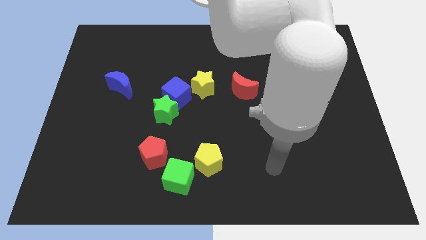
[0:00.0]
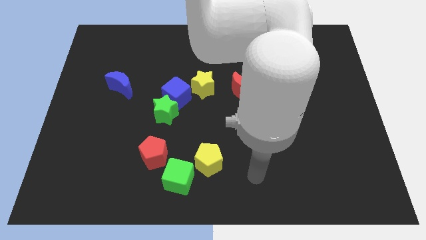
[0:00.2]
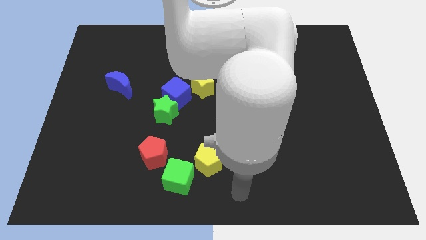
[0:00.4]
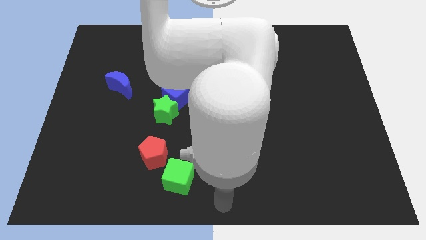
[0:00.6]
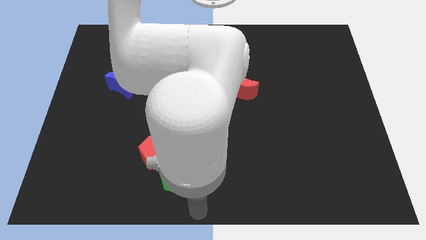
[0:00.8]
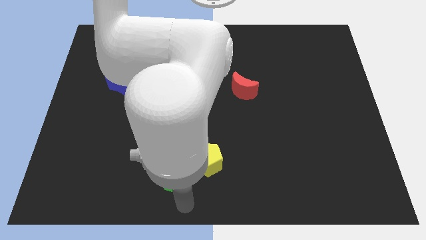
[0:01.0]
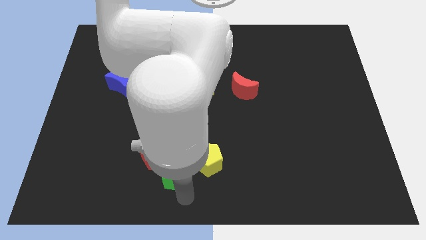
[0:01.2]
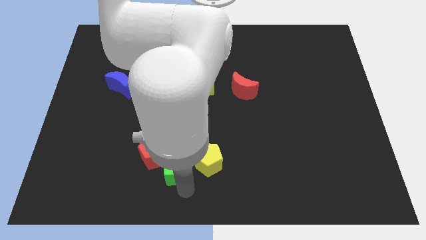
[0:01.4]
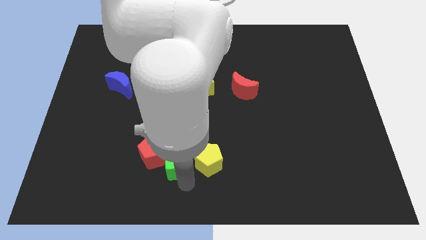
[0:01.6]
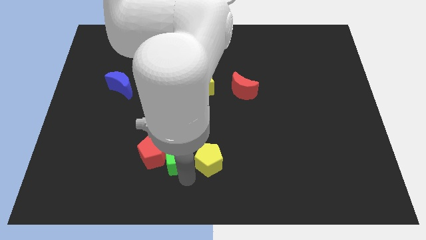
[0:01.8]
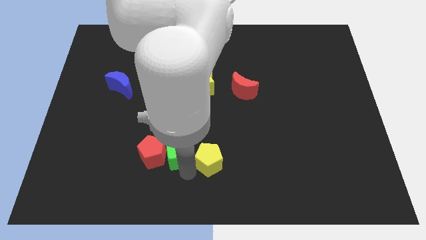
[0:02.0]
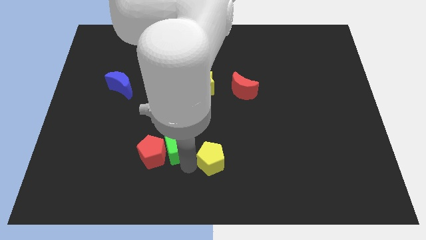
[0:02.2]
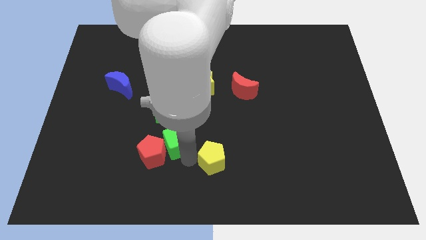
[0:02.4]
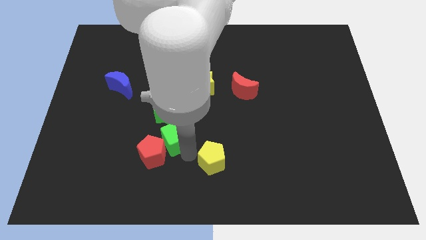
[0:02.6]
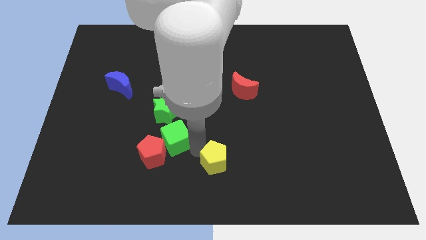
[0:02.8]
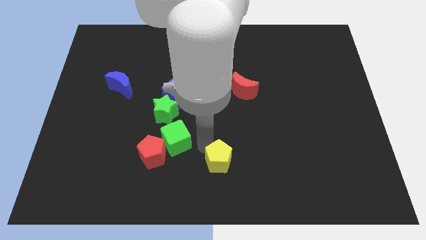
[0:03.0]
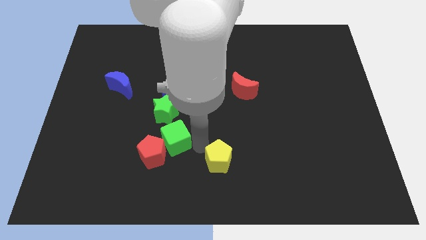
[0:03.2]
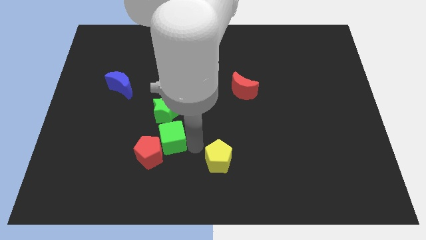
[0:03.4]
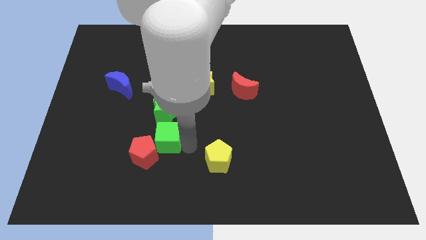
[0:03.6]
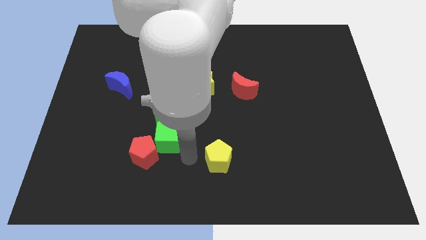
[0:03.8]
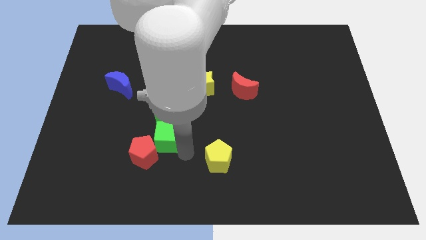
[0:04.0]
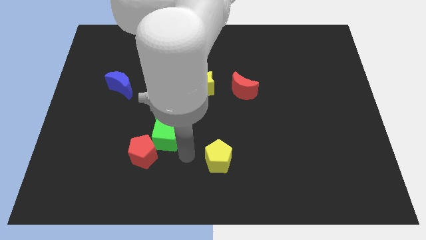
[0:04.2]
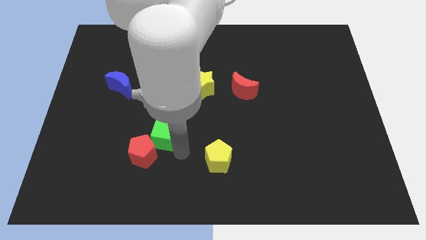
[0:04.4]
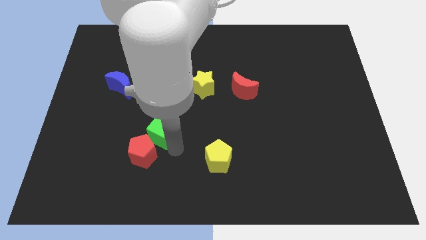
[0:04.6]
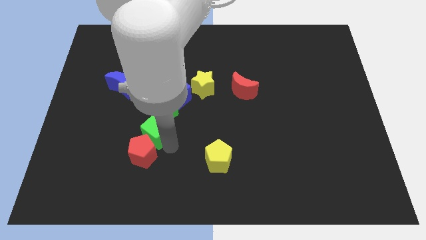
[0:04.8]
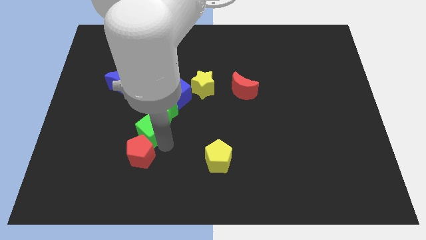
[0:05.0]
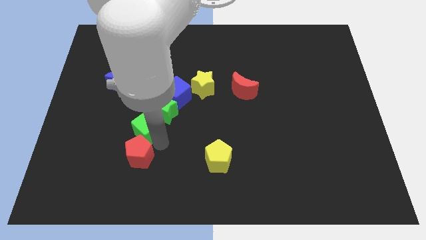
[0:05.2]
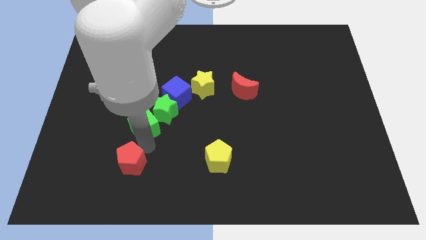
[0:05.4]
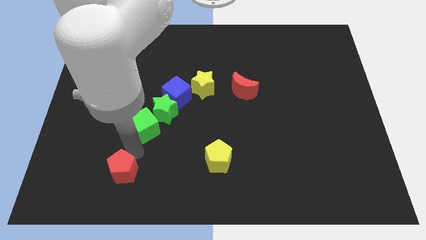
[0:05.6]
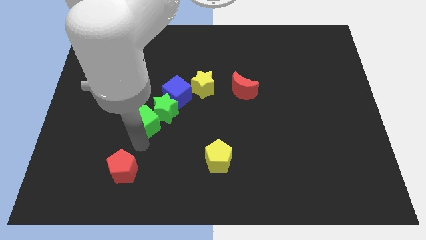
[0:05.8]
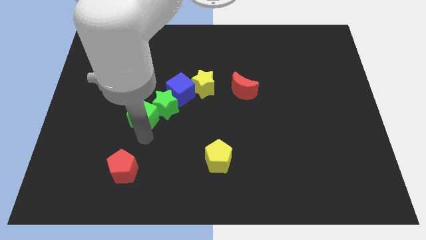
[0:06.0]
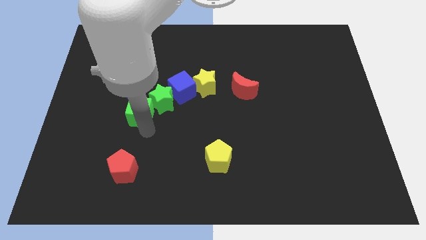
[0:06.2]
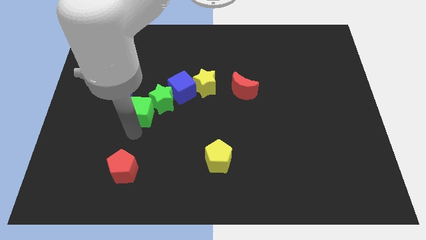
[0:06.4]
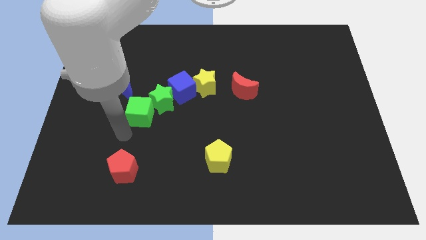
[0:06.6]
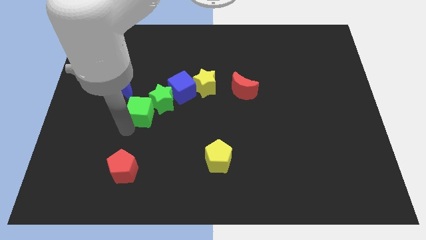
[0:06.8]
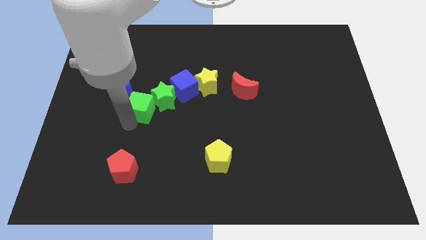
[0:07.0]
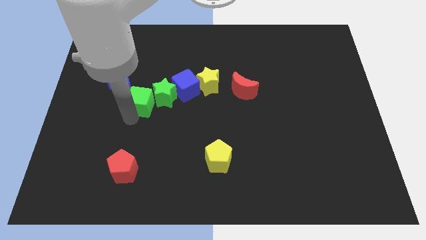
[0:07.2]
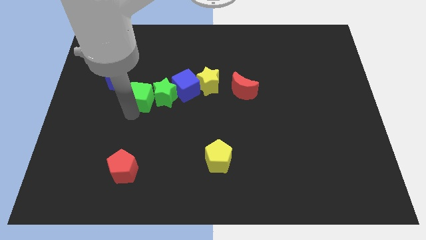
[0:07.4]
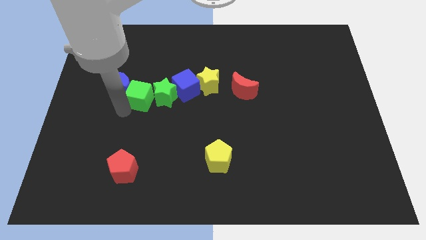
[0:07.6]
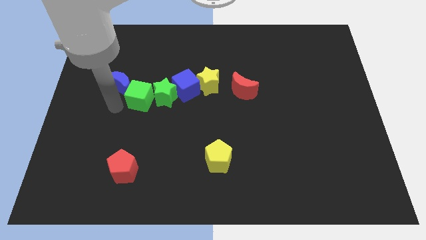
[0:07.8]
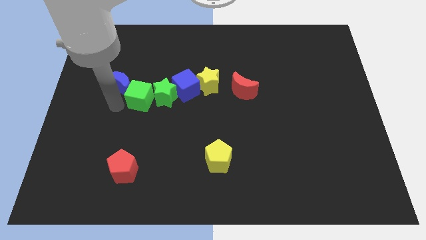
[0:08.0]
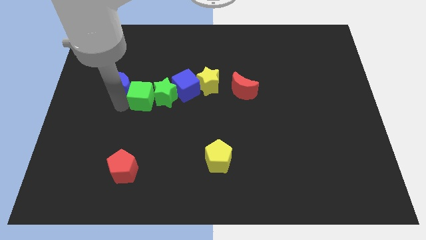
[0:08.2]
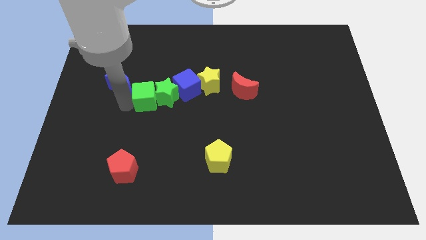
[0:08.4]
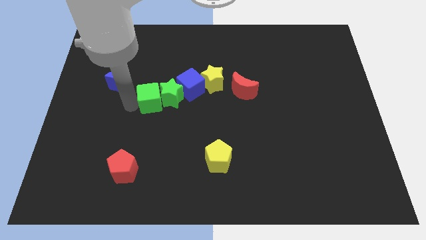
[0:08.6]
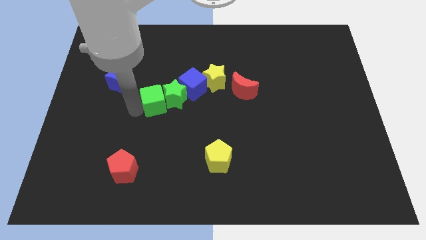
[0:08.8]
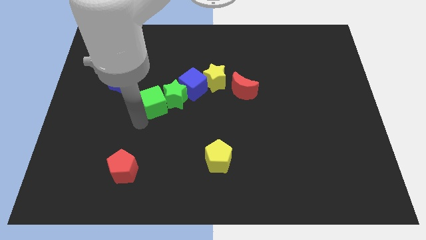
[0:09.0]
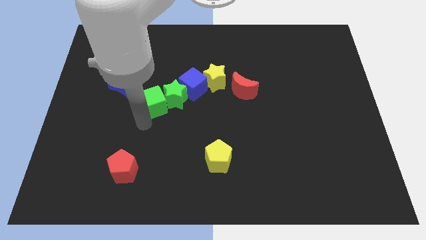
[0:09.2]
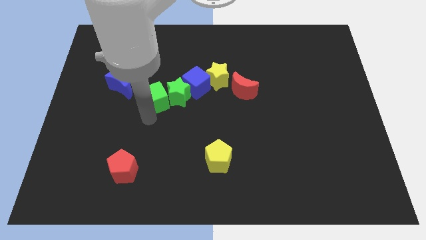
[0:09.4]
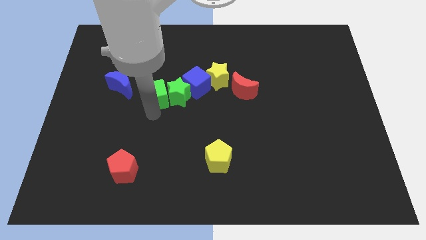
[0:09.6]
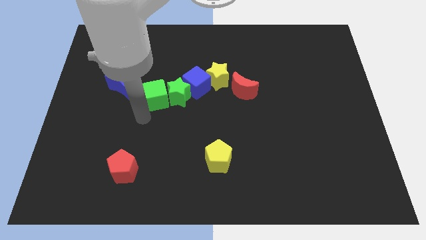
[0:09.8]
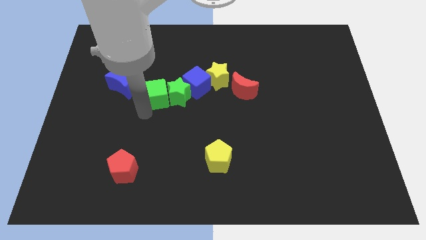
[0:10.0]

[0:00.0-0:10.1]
push the green cube upwards

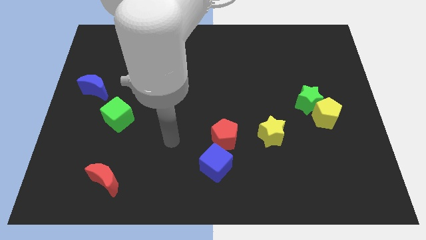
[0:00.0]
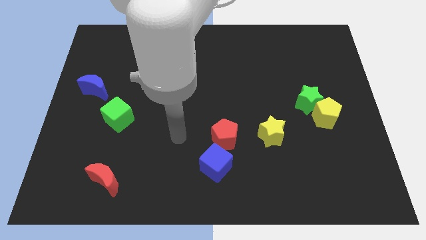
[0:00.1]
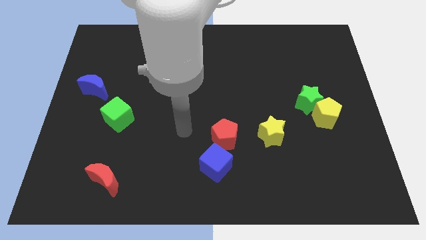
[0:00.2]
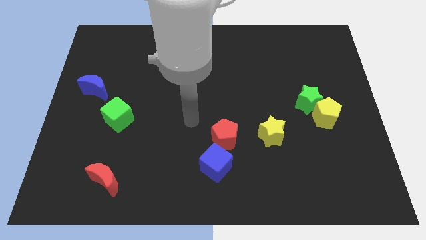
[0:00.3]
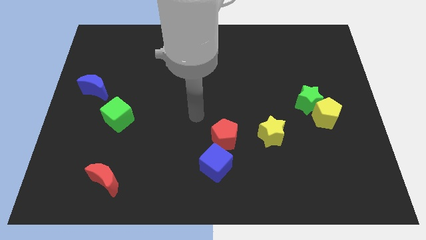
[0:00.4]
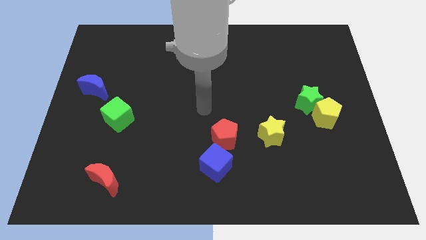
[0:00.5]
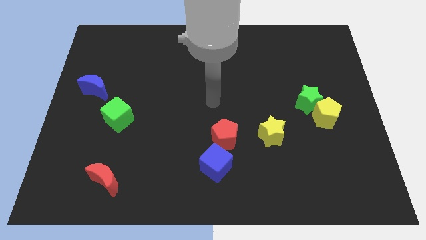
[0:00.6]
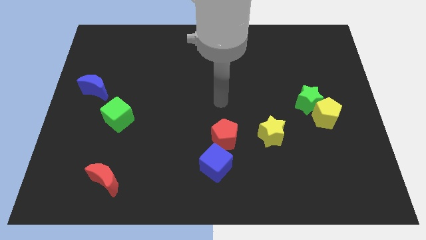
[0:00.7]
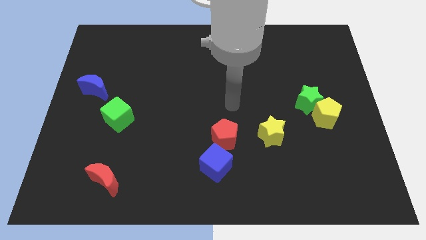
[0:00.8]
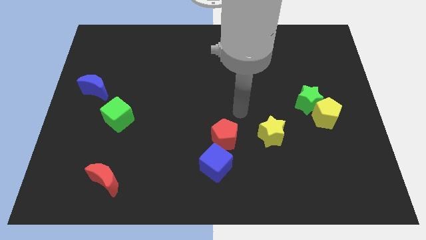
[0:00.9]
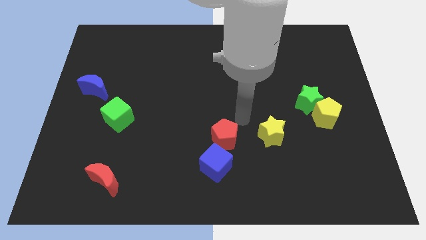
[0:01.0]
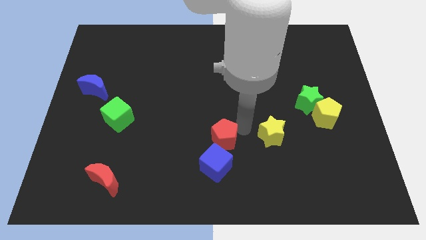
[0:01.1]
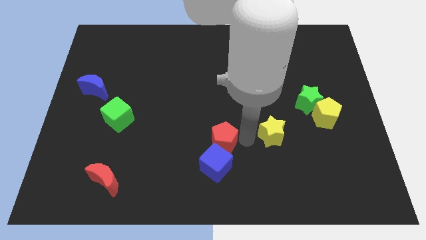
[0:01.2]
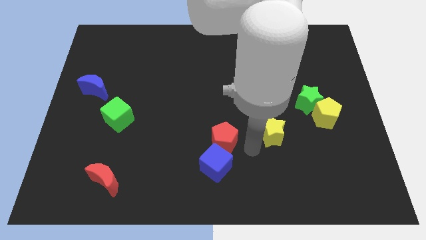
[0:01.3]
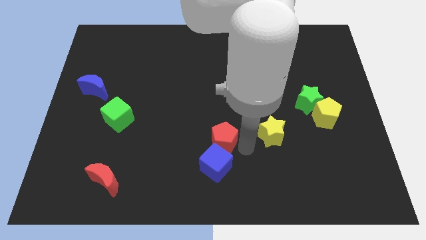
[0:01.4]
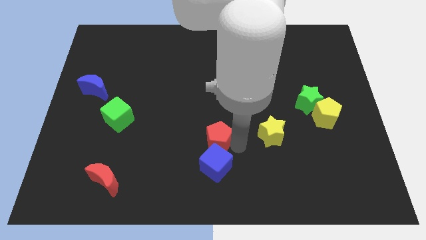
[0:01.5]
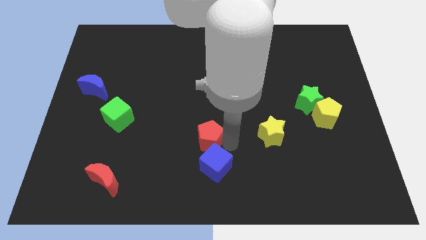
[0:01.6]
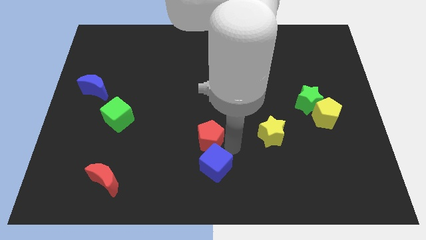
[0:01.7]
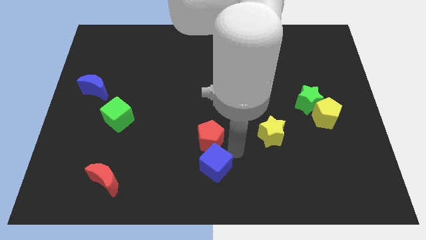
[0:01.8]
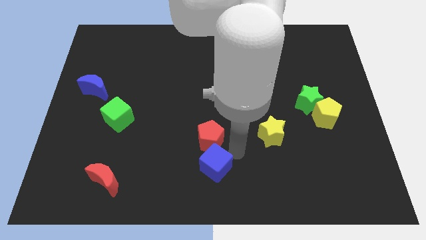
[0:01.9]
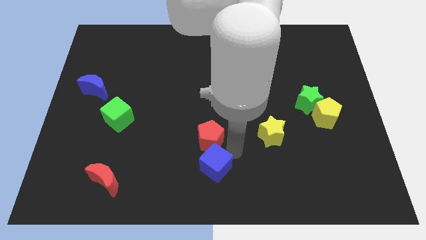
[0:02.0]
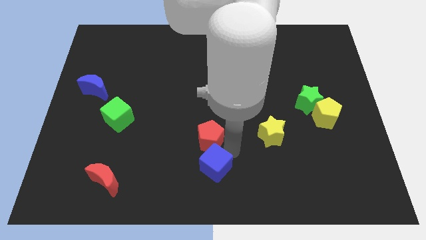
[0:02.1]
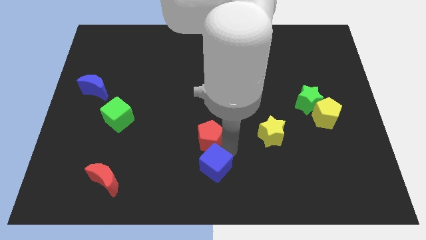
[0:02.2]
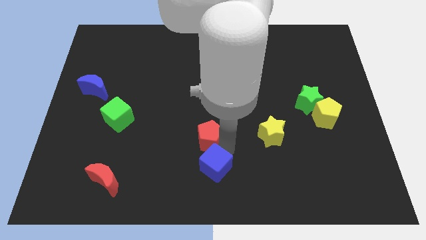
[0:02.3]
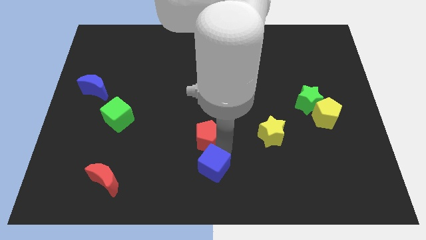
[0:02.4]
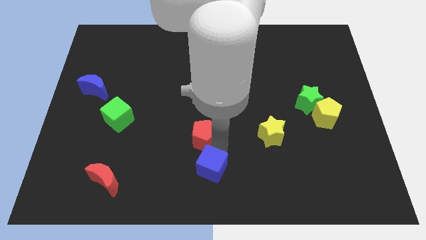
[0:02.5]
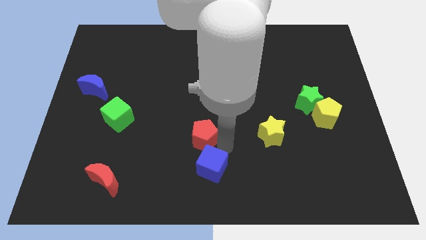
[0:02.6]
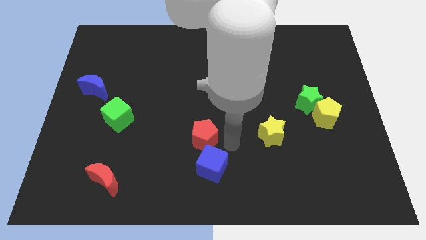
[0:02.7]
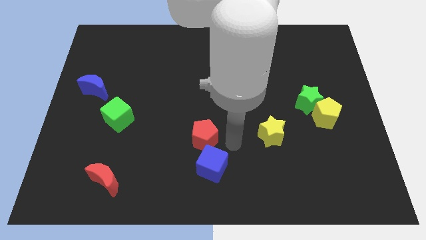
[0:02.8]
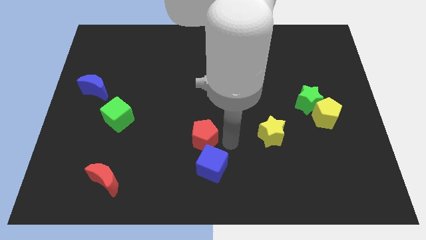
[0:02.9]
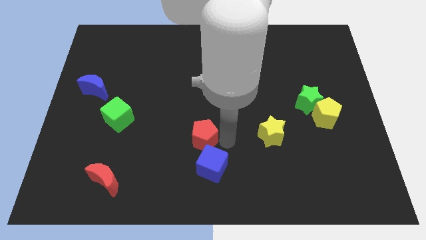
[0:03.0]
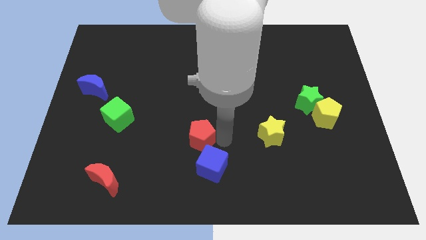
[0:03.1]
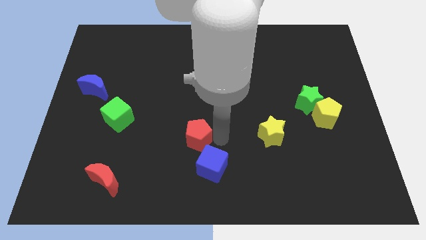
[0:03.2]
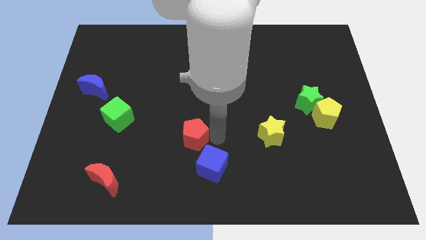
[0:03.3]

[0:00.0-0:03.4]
move the red pentagon to the left a little bit
